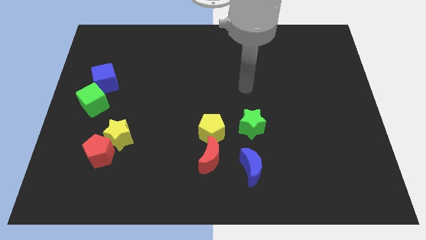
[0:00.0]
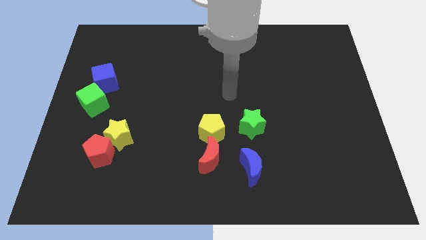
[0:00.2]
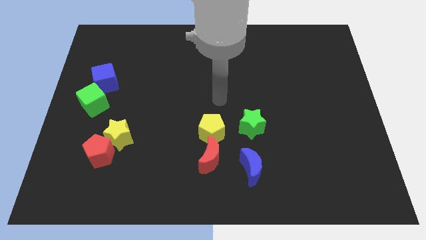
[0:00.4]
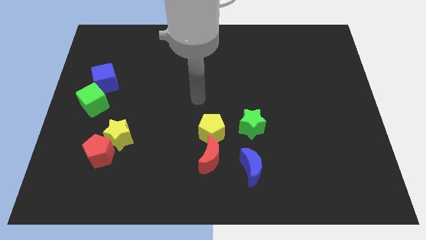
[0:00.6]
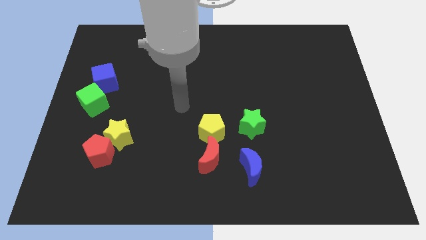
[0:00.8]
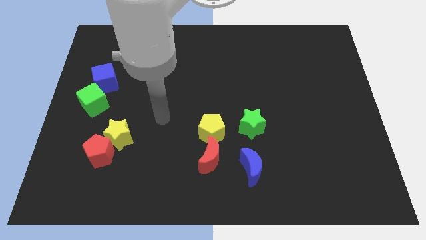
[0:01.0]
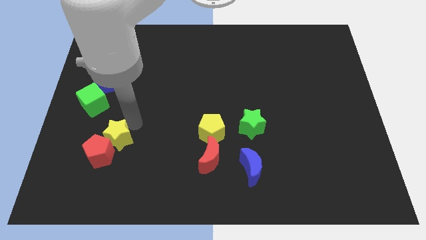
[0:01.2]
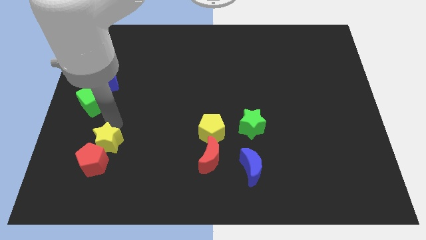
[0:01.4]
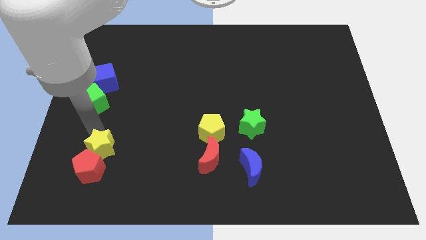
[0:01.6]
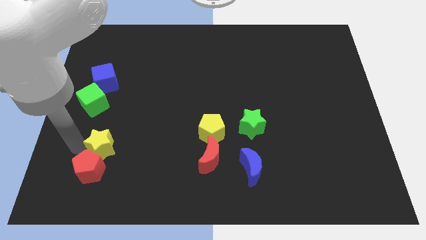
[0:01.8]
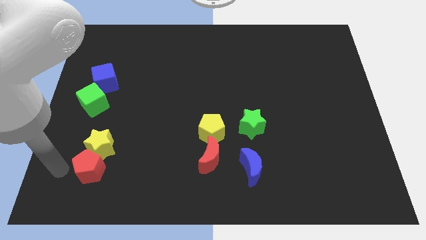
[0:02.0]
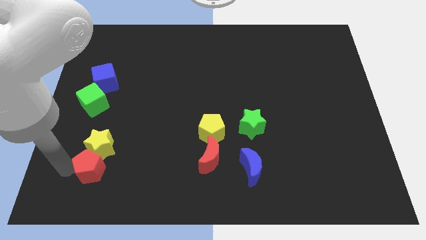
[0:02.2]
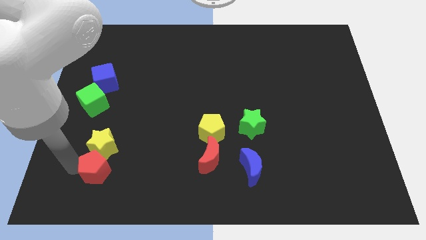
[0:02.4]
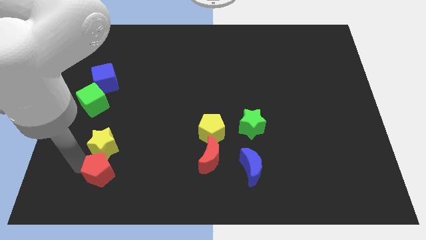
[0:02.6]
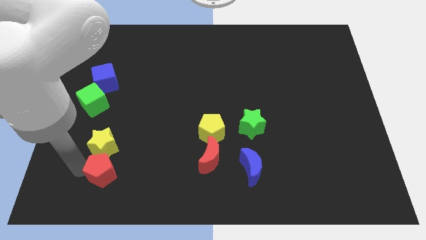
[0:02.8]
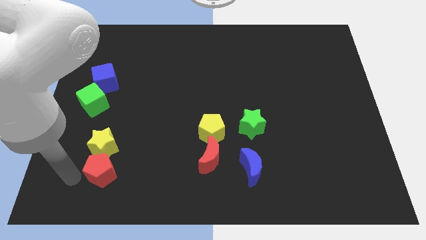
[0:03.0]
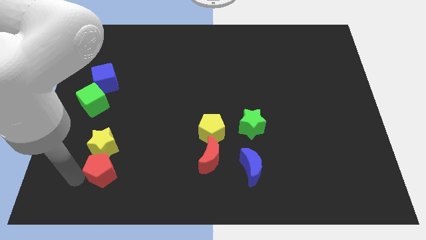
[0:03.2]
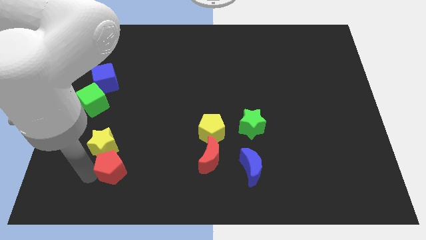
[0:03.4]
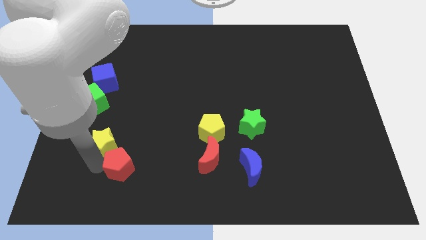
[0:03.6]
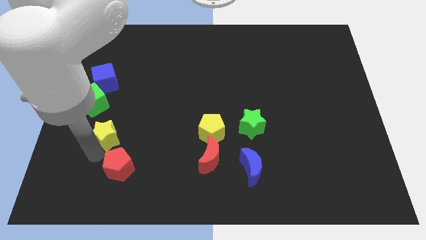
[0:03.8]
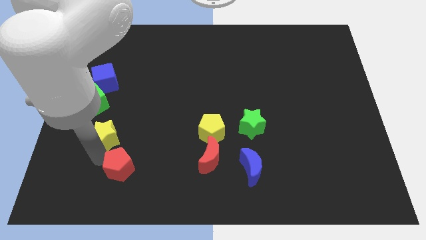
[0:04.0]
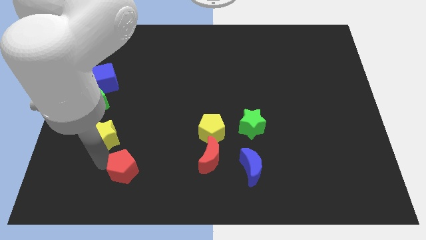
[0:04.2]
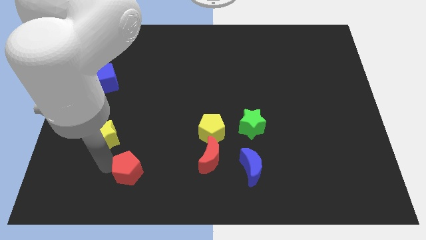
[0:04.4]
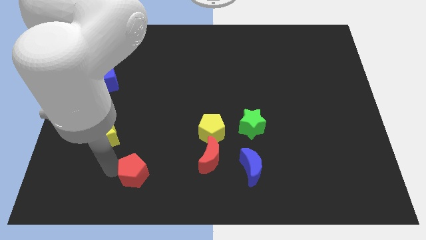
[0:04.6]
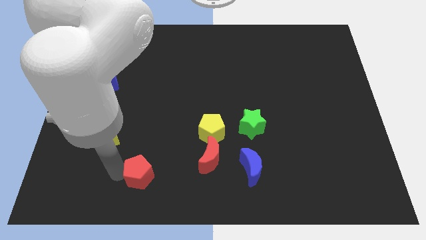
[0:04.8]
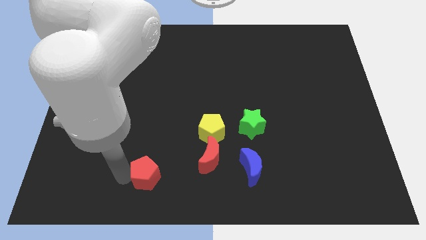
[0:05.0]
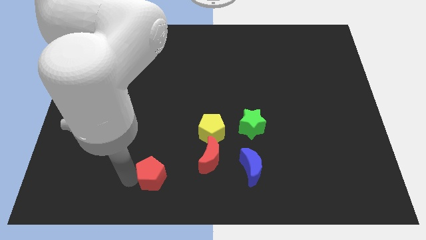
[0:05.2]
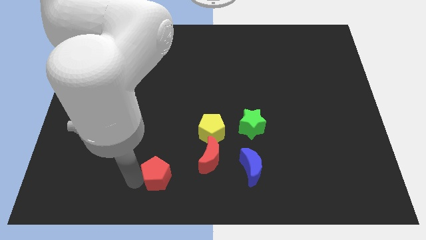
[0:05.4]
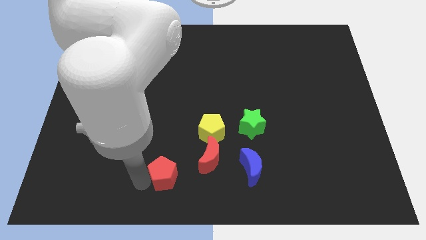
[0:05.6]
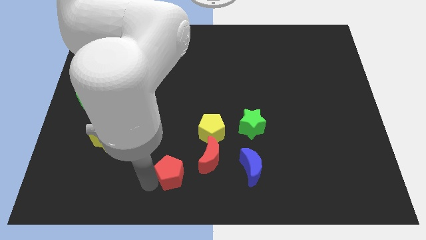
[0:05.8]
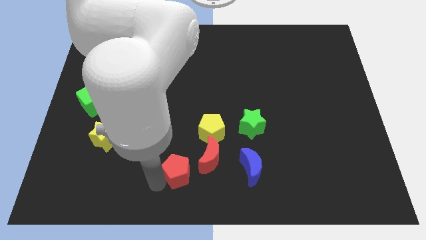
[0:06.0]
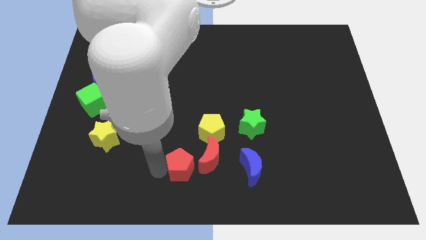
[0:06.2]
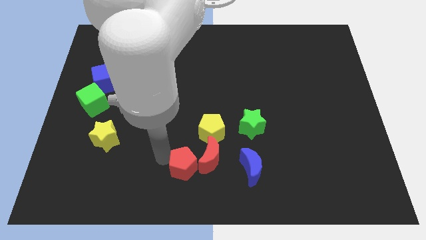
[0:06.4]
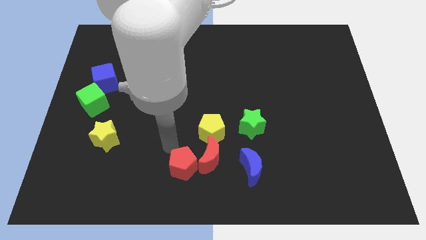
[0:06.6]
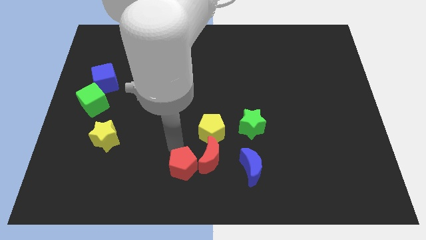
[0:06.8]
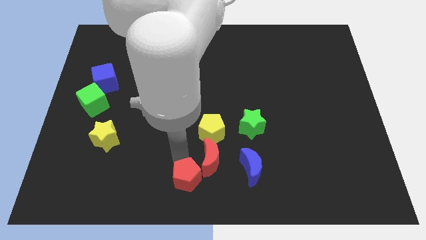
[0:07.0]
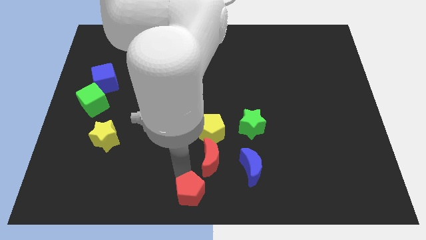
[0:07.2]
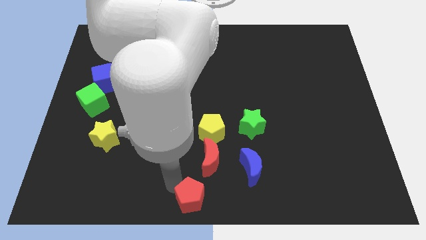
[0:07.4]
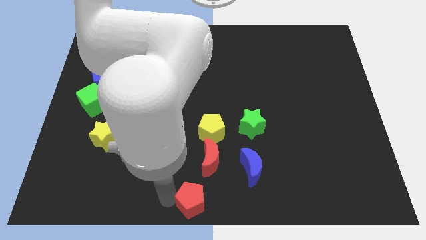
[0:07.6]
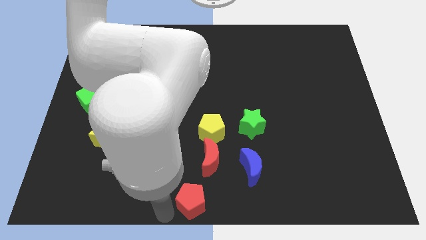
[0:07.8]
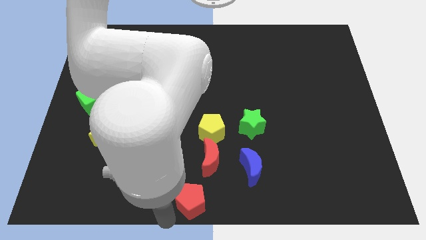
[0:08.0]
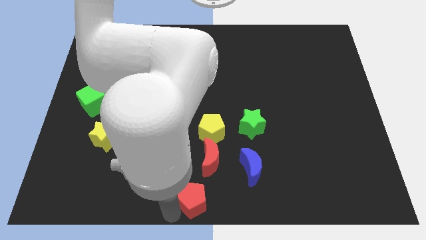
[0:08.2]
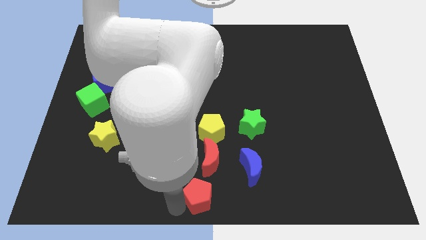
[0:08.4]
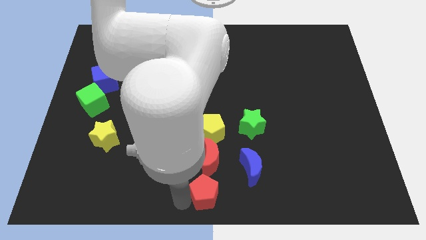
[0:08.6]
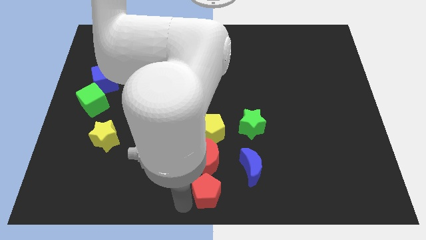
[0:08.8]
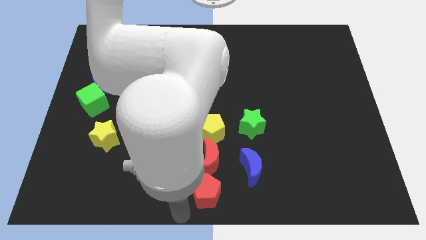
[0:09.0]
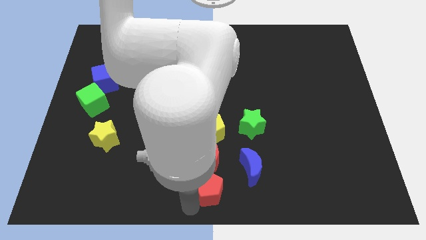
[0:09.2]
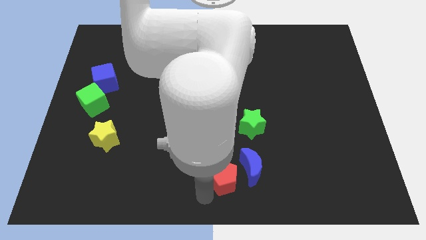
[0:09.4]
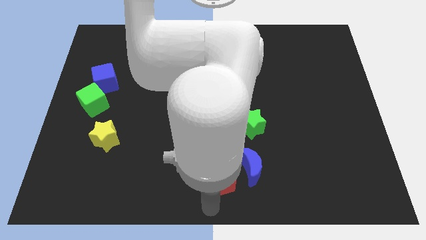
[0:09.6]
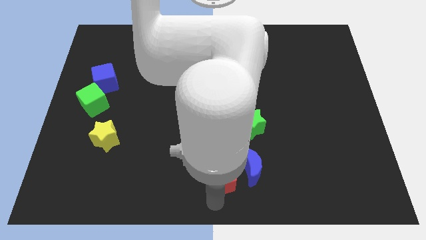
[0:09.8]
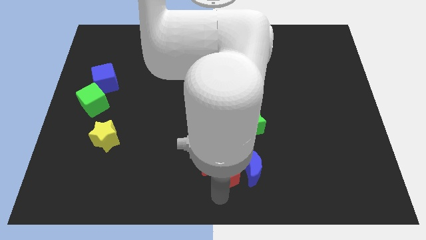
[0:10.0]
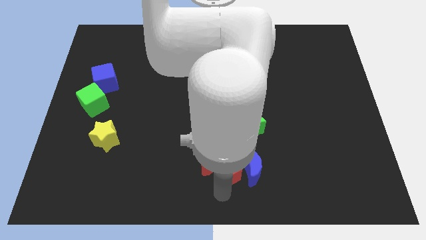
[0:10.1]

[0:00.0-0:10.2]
move the red pentagon to the bottom right of the yellow pentagon

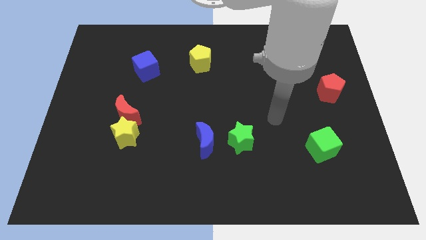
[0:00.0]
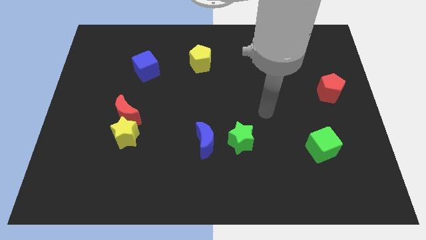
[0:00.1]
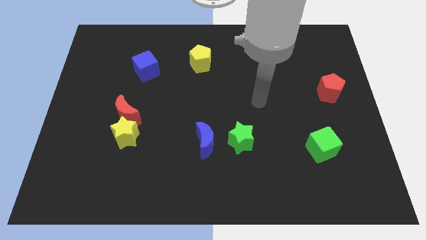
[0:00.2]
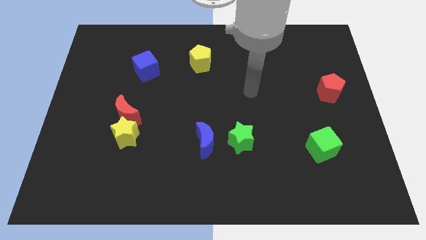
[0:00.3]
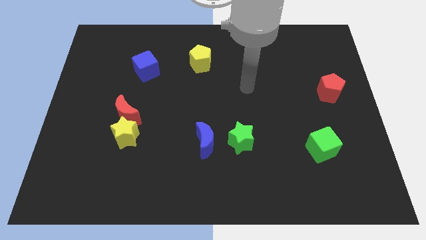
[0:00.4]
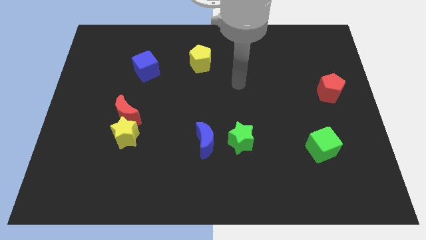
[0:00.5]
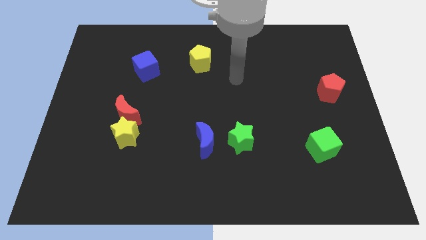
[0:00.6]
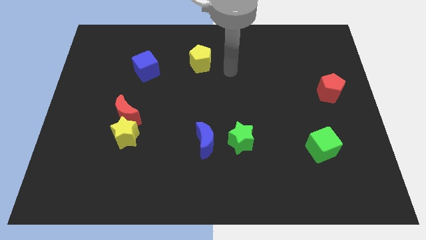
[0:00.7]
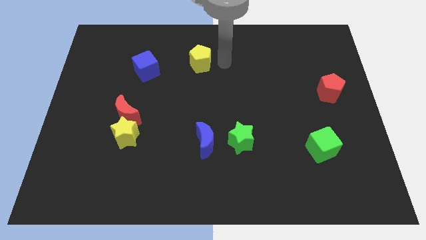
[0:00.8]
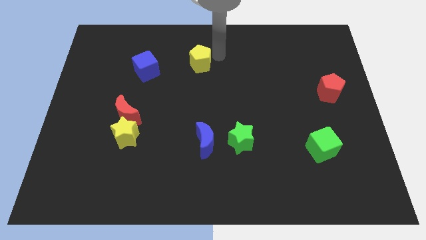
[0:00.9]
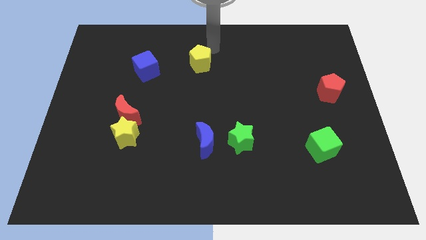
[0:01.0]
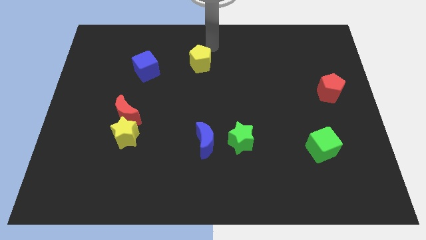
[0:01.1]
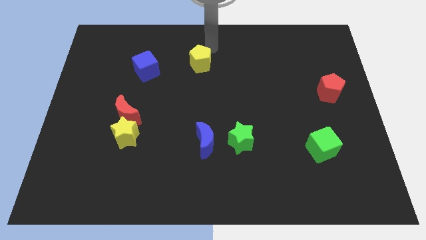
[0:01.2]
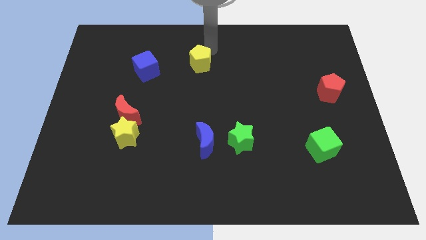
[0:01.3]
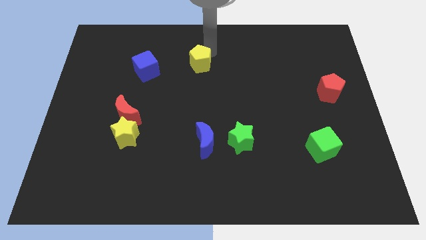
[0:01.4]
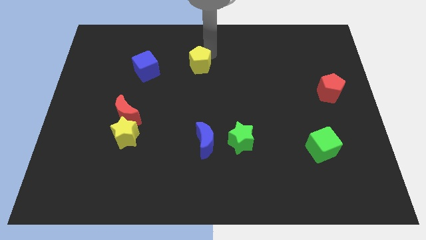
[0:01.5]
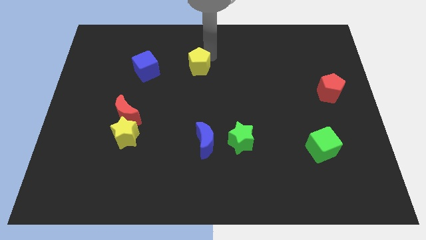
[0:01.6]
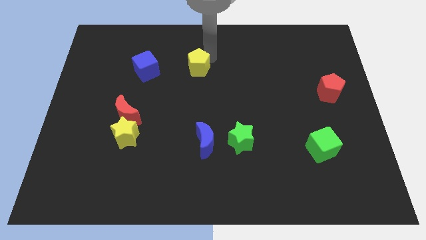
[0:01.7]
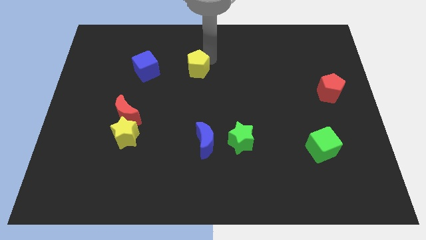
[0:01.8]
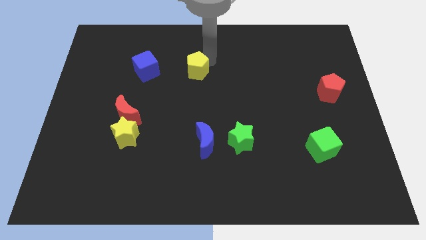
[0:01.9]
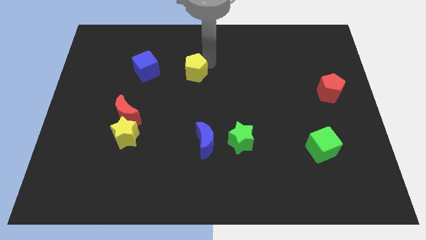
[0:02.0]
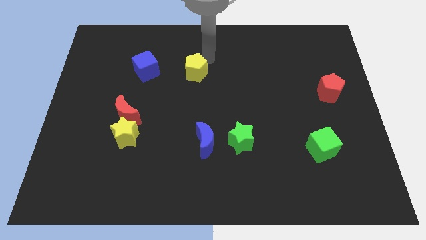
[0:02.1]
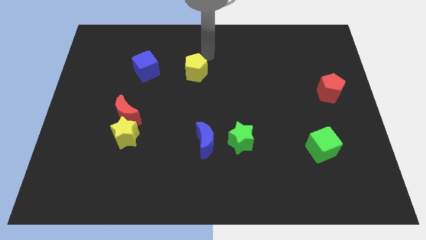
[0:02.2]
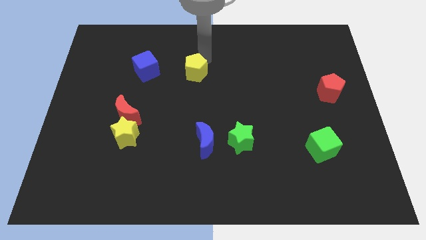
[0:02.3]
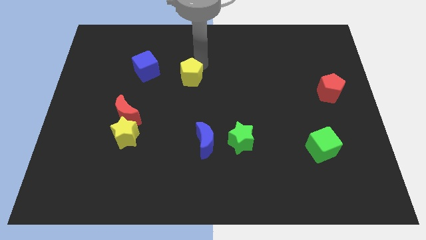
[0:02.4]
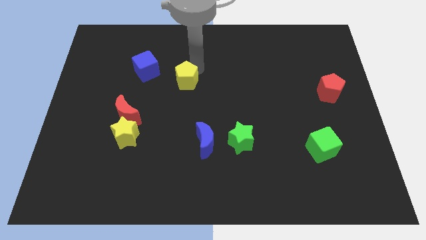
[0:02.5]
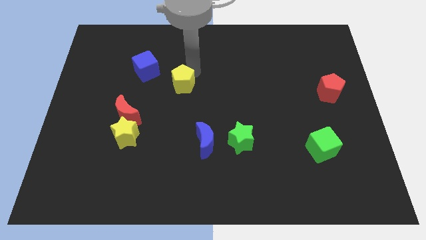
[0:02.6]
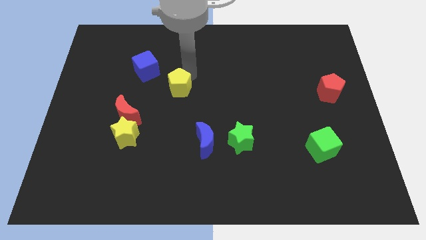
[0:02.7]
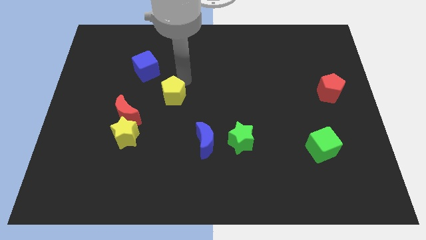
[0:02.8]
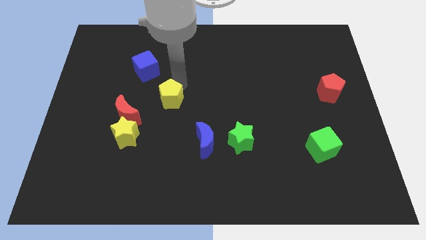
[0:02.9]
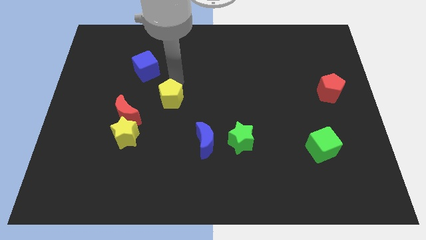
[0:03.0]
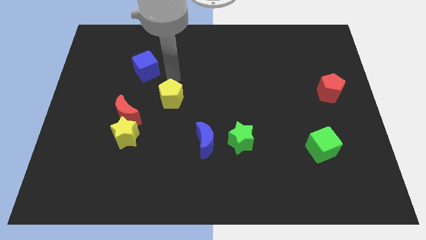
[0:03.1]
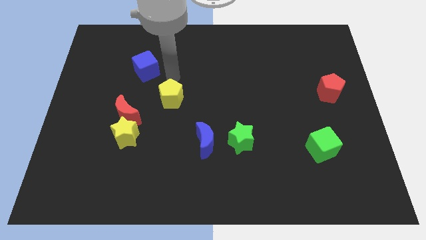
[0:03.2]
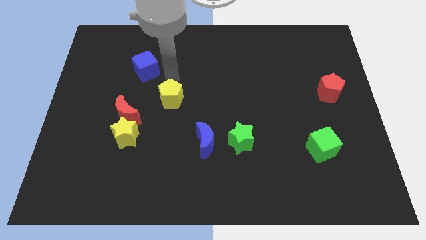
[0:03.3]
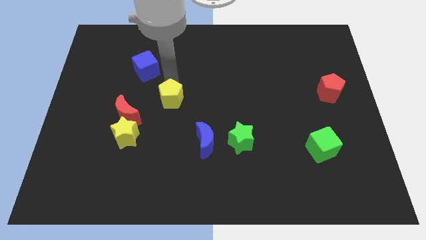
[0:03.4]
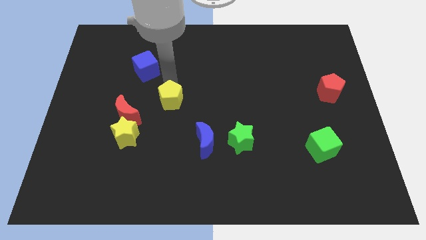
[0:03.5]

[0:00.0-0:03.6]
move the yellow pentagon right of the red moon
